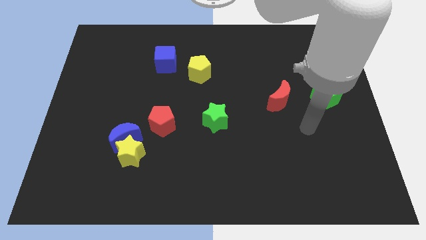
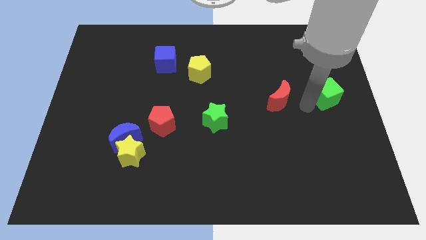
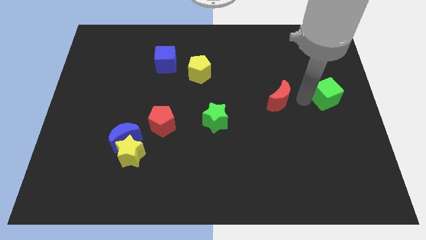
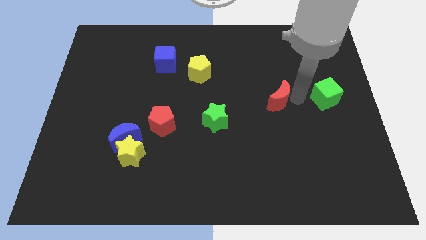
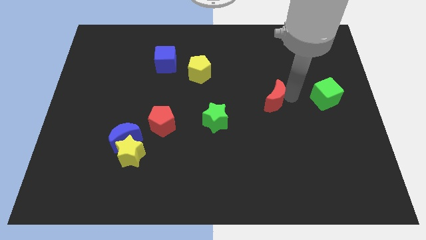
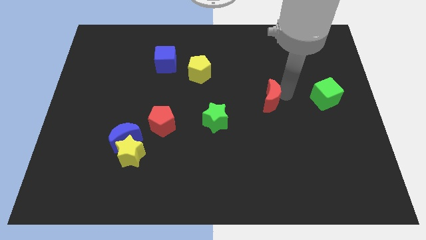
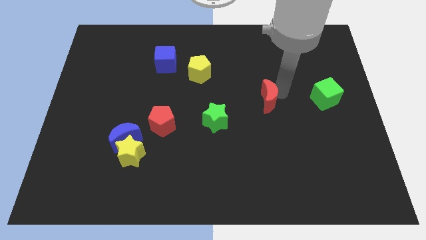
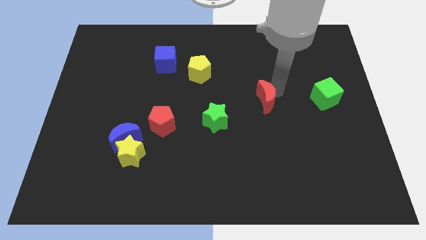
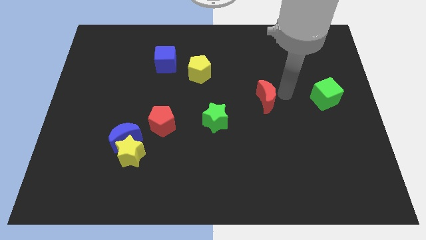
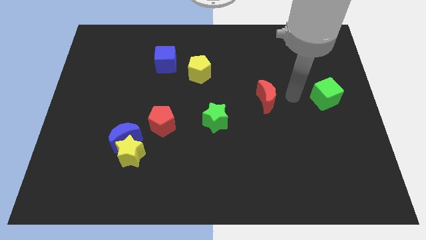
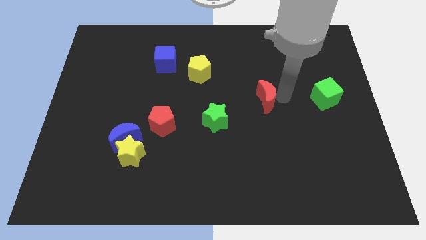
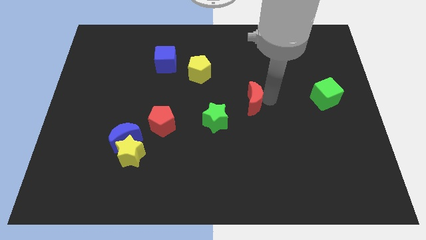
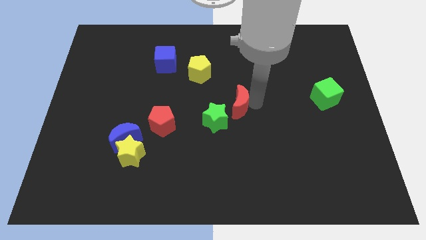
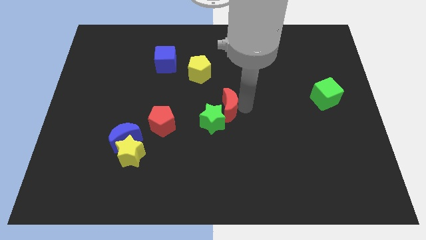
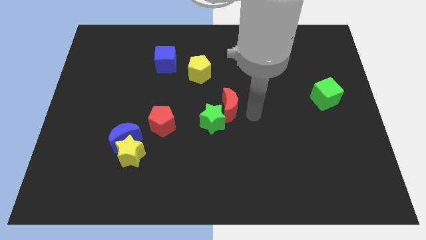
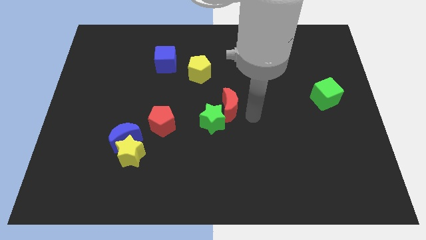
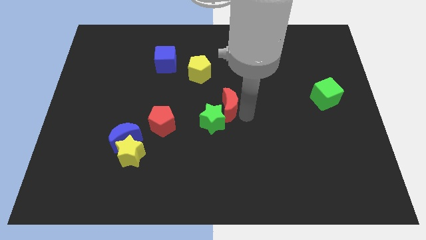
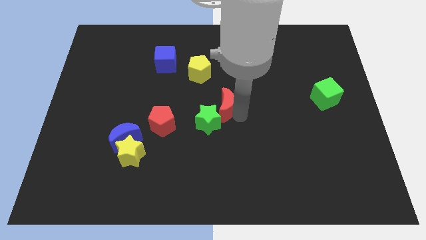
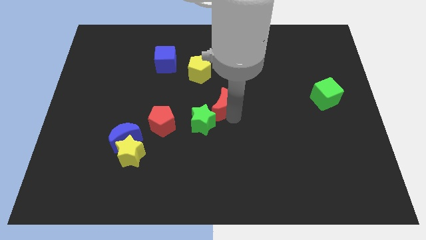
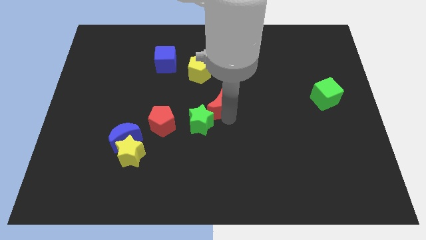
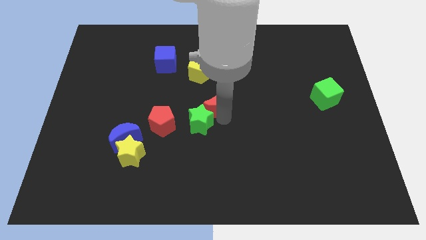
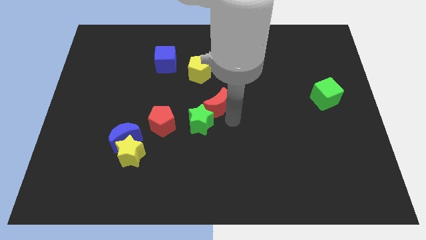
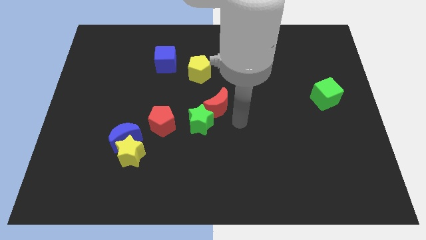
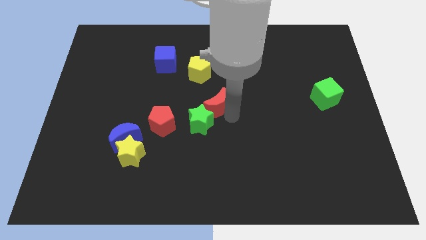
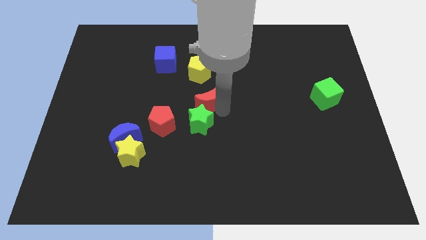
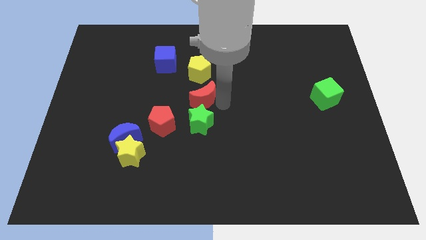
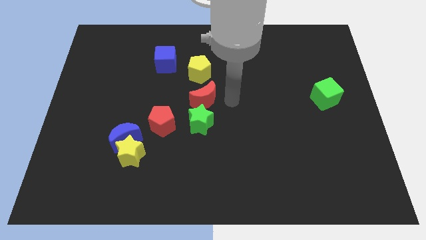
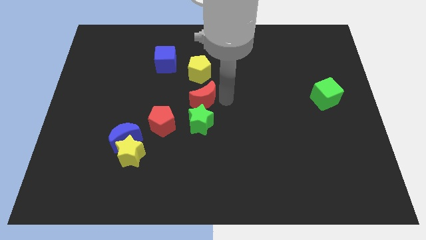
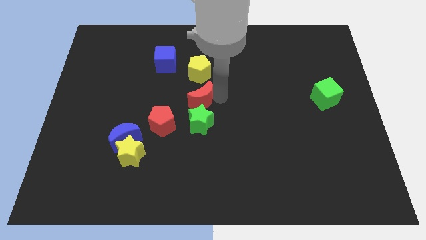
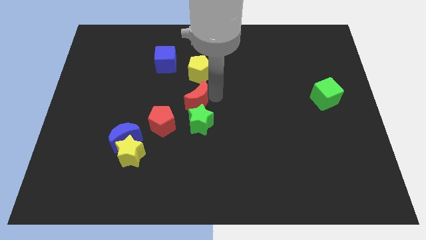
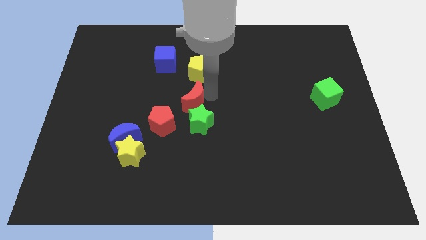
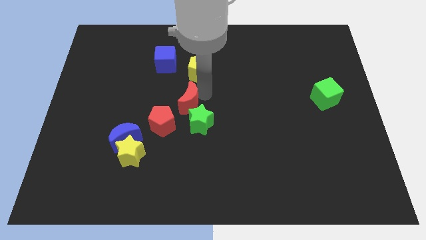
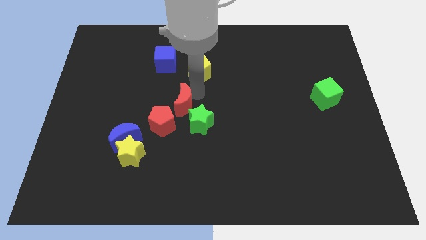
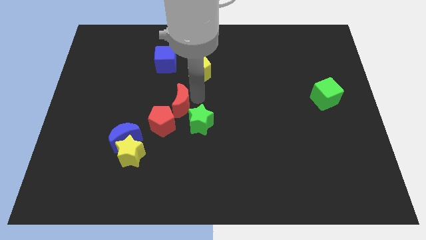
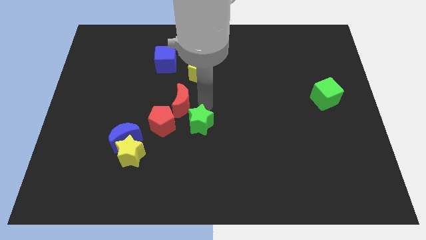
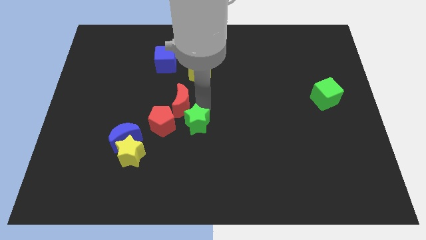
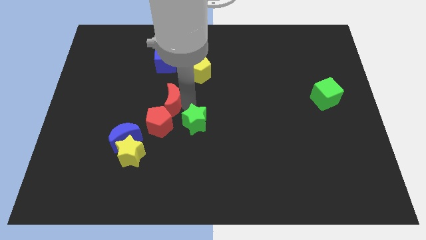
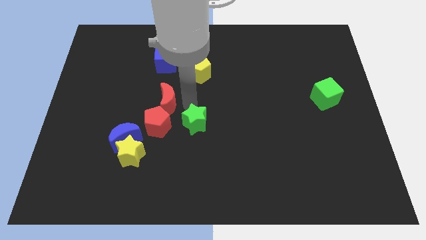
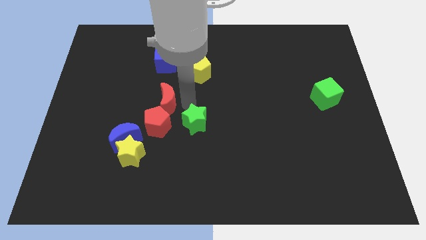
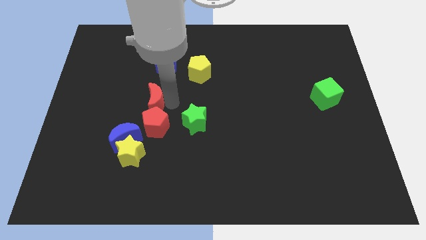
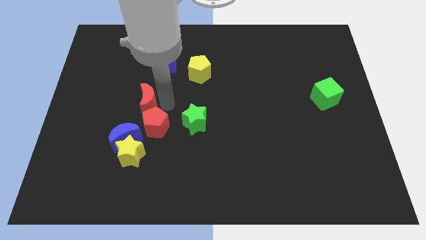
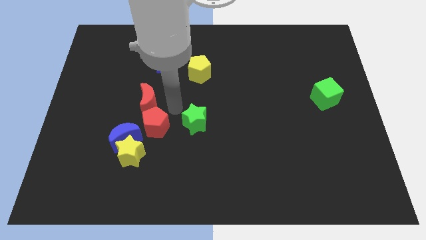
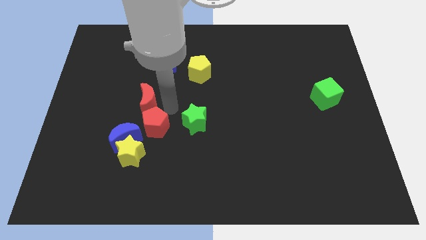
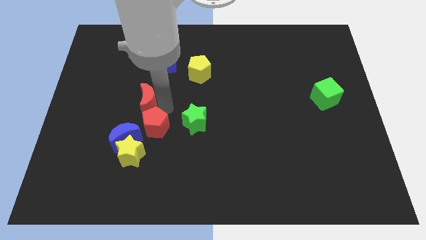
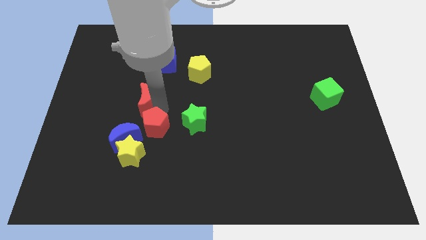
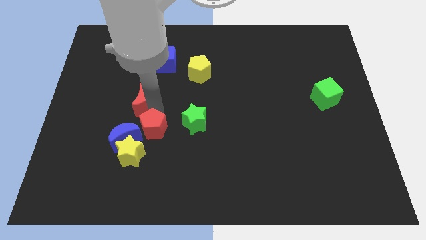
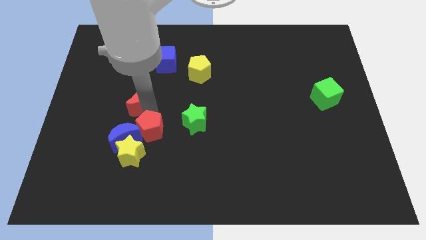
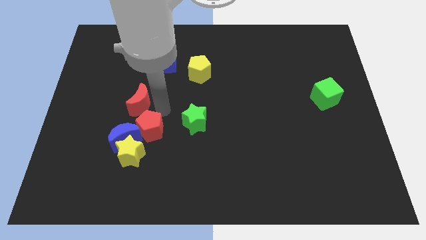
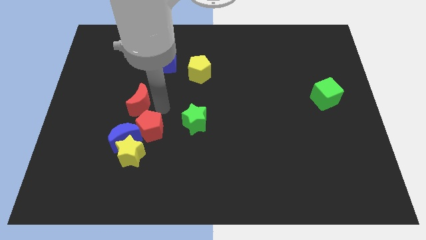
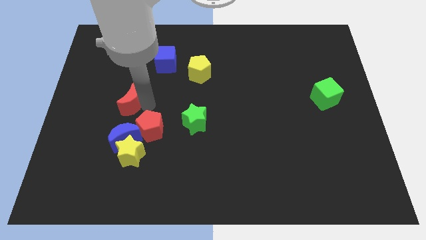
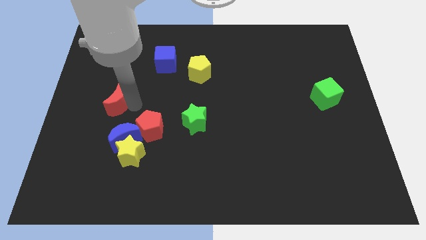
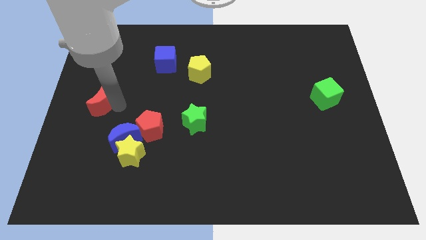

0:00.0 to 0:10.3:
push the red moon to the center left
